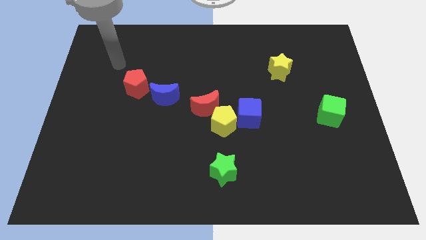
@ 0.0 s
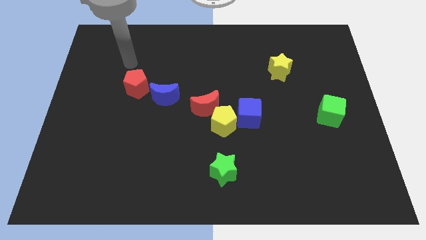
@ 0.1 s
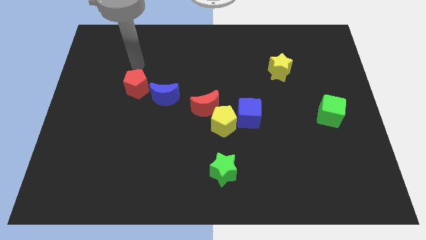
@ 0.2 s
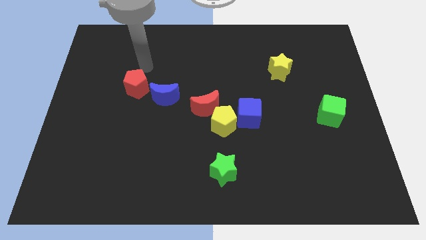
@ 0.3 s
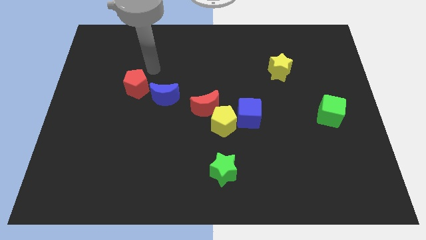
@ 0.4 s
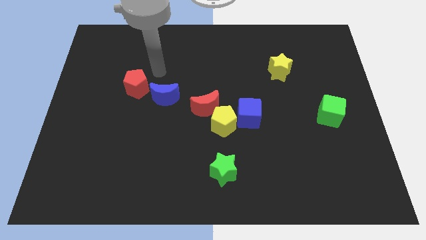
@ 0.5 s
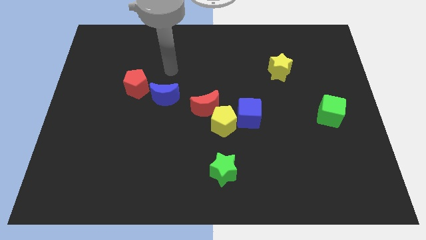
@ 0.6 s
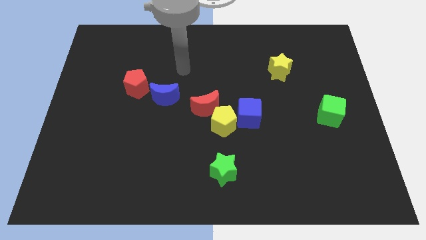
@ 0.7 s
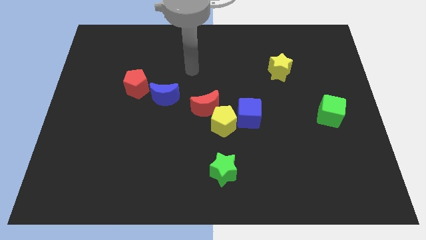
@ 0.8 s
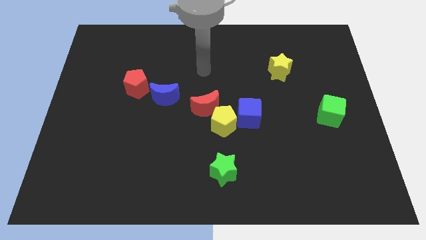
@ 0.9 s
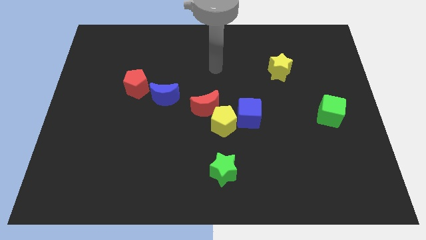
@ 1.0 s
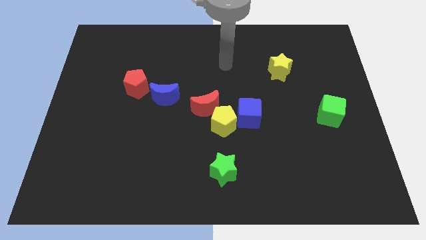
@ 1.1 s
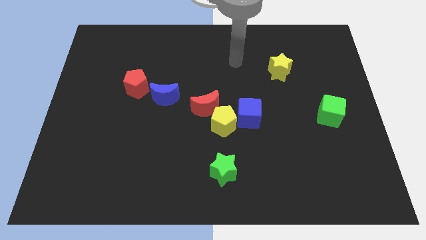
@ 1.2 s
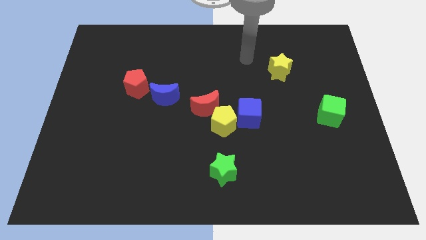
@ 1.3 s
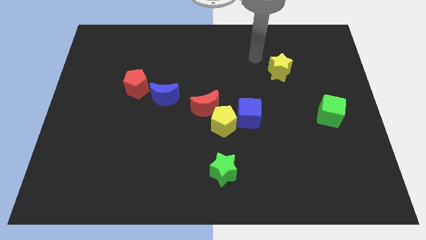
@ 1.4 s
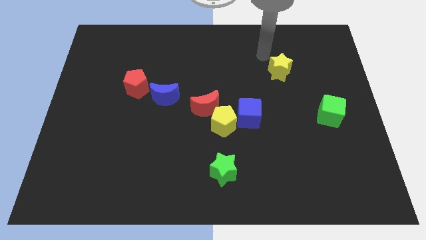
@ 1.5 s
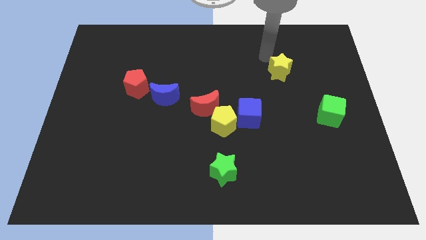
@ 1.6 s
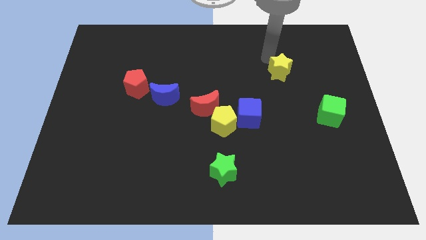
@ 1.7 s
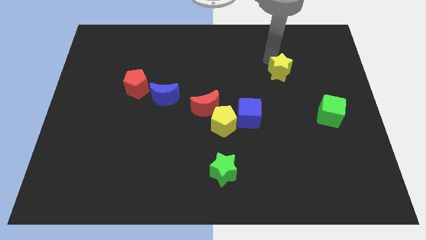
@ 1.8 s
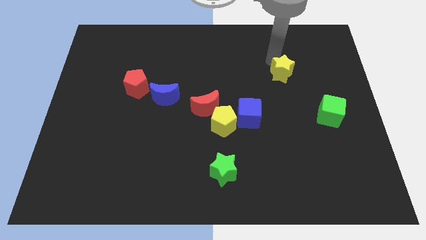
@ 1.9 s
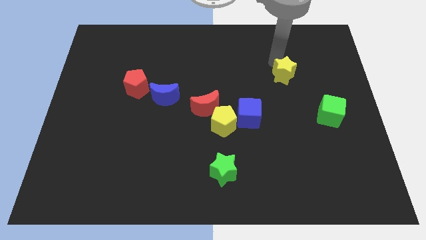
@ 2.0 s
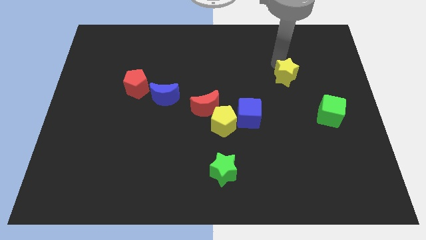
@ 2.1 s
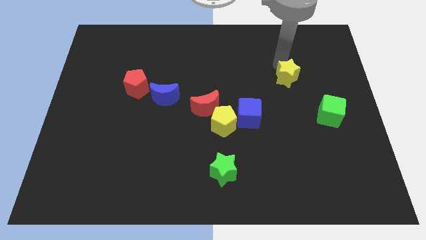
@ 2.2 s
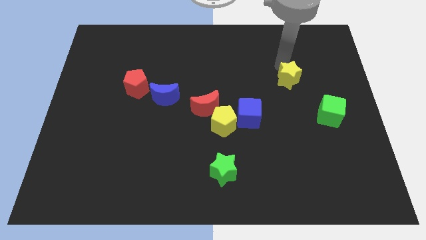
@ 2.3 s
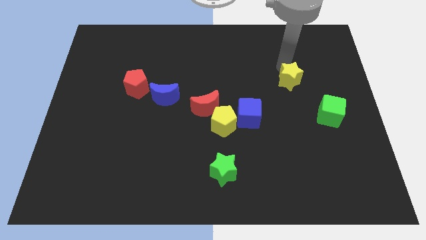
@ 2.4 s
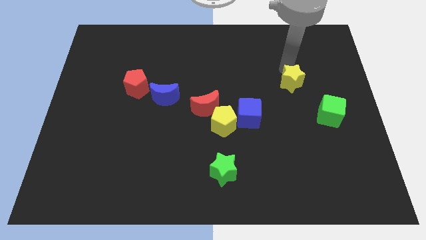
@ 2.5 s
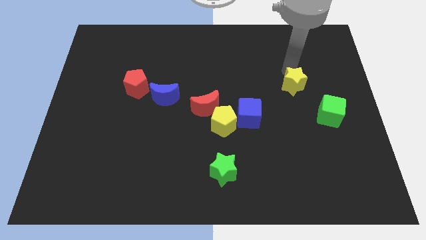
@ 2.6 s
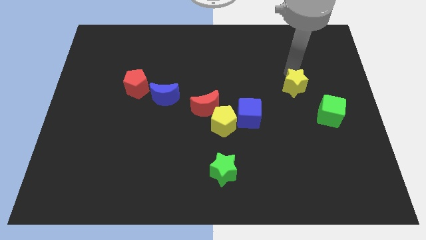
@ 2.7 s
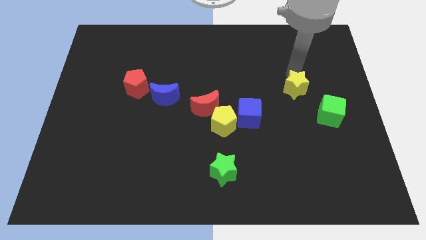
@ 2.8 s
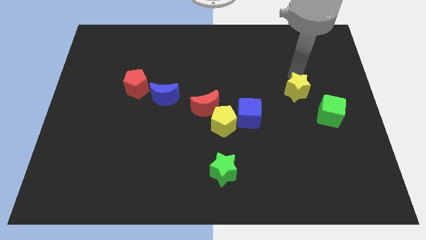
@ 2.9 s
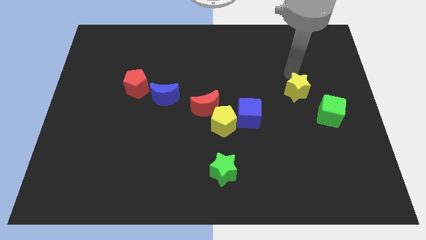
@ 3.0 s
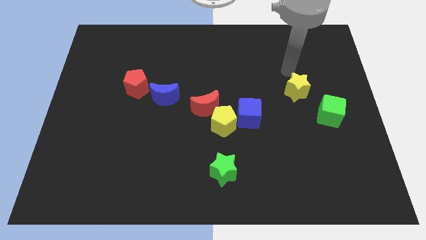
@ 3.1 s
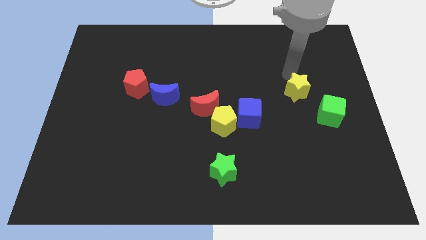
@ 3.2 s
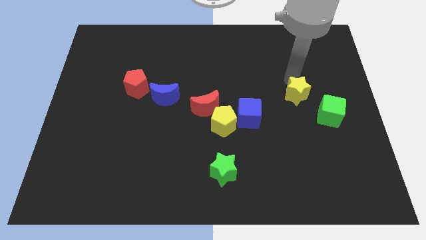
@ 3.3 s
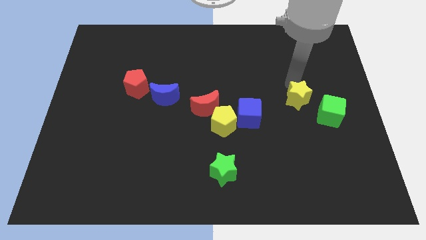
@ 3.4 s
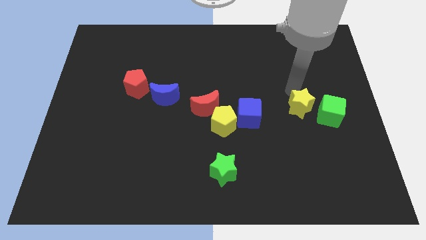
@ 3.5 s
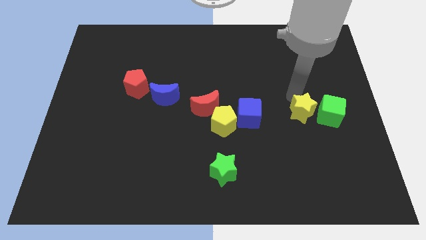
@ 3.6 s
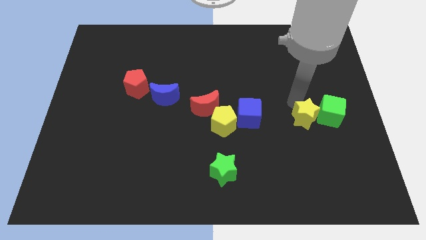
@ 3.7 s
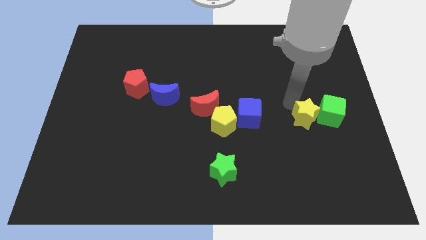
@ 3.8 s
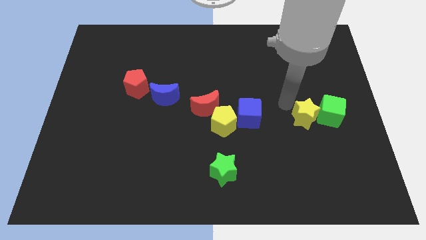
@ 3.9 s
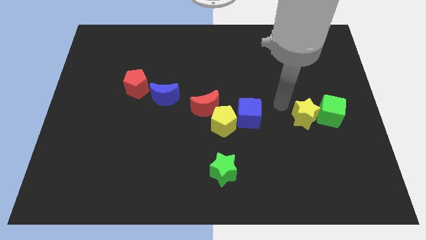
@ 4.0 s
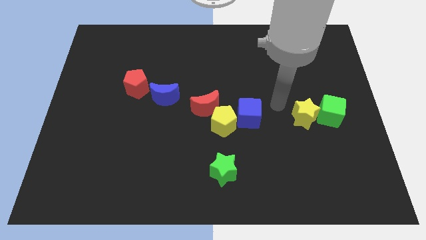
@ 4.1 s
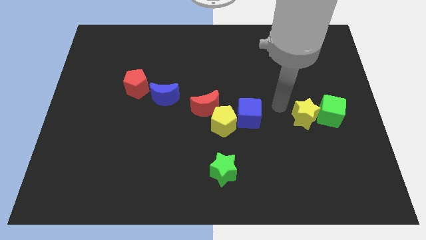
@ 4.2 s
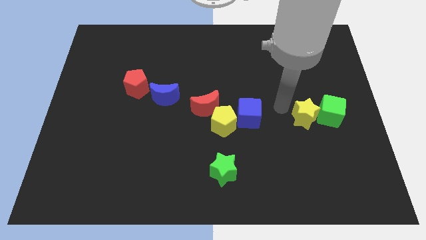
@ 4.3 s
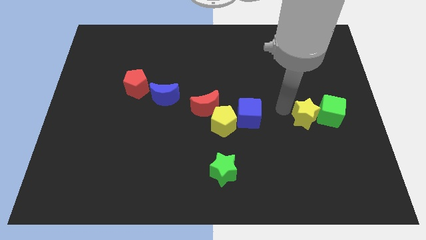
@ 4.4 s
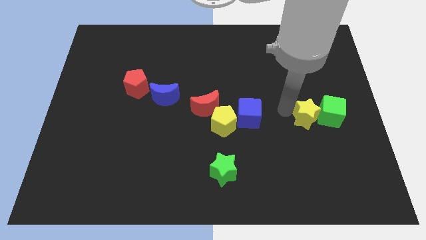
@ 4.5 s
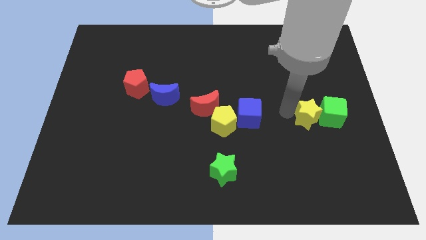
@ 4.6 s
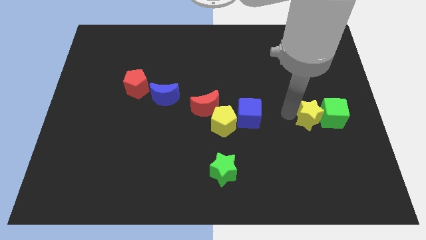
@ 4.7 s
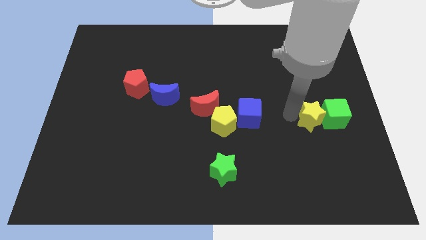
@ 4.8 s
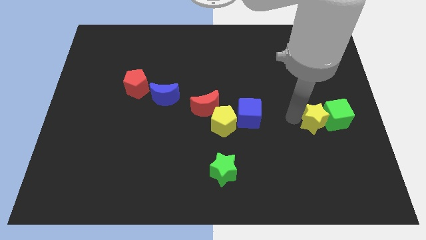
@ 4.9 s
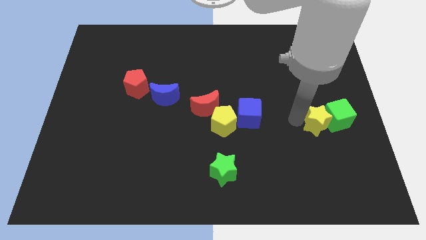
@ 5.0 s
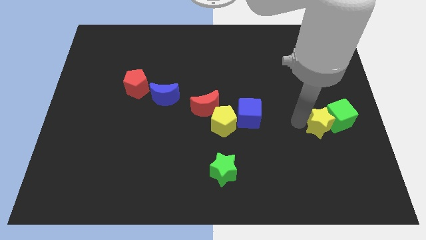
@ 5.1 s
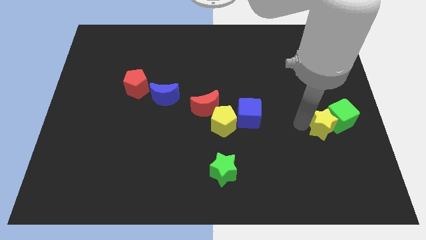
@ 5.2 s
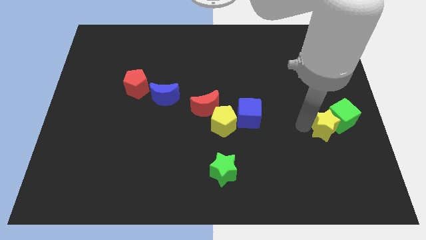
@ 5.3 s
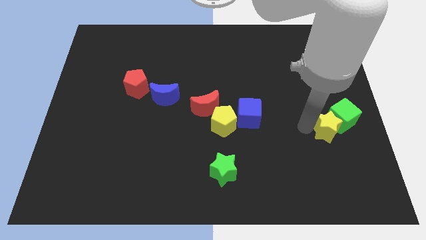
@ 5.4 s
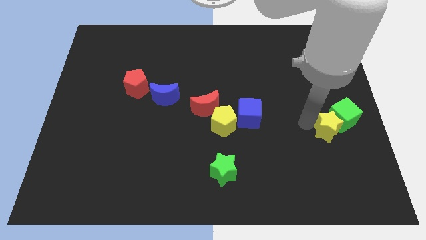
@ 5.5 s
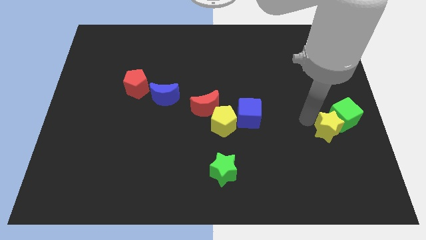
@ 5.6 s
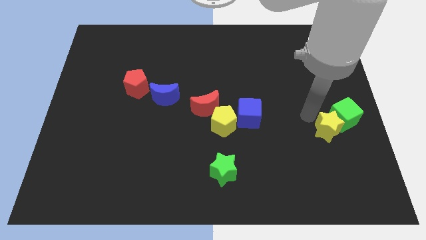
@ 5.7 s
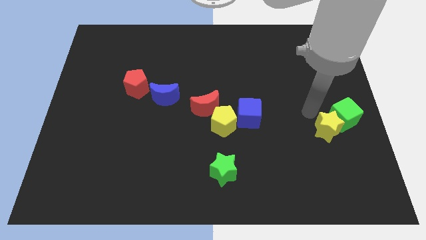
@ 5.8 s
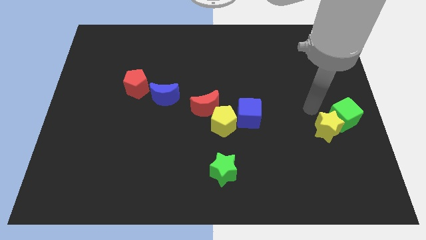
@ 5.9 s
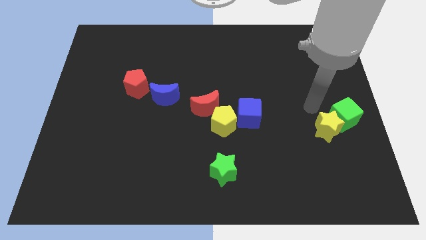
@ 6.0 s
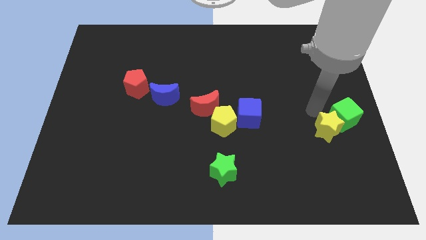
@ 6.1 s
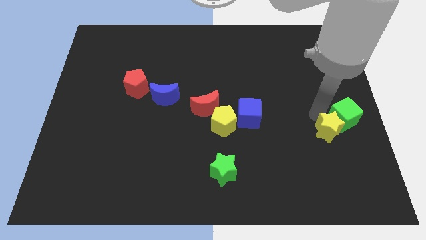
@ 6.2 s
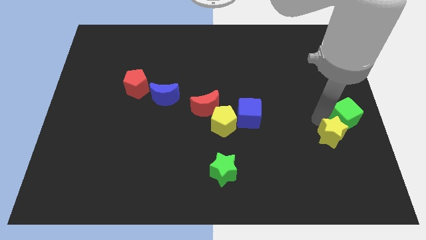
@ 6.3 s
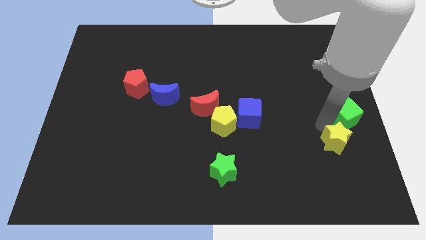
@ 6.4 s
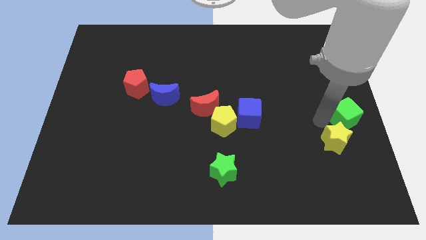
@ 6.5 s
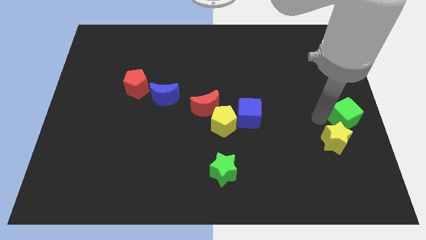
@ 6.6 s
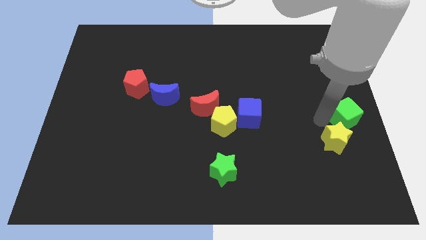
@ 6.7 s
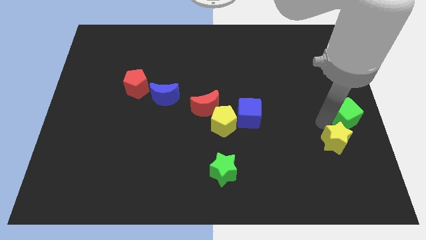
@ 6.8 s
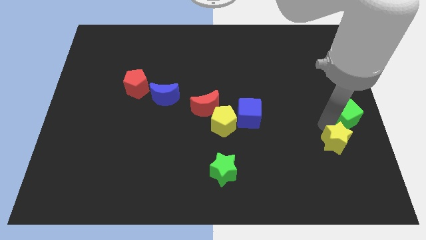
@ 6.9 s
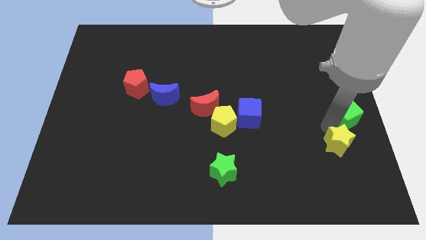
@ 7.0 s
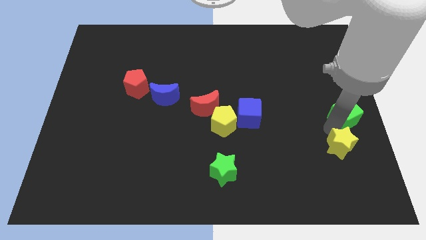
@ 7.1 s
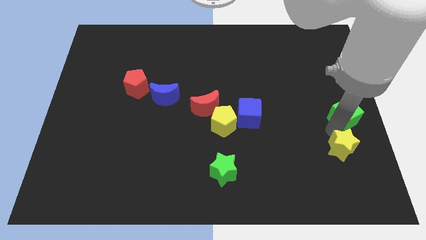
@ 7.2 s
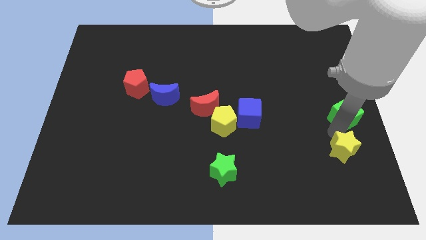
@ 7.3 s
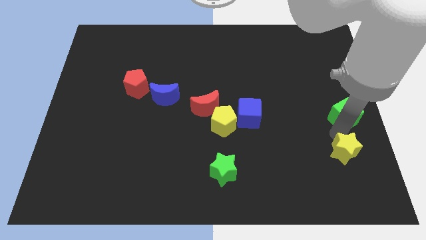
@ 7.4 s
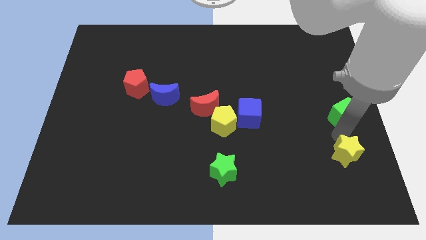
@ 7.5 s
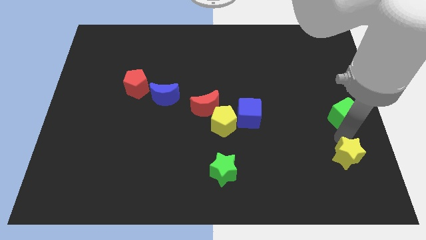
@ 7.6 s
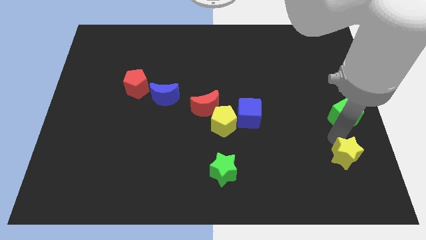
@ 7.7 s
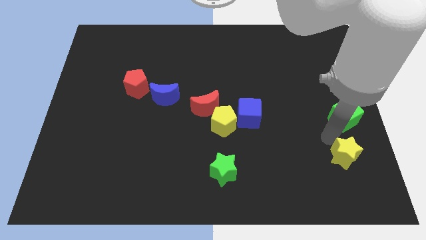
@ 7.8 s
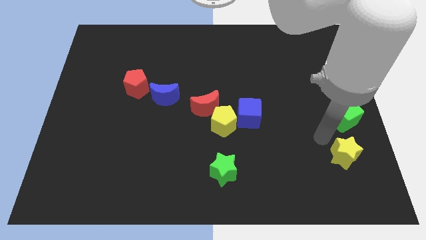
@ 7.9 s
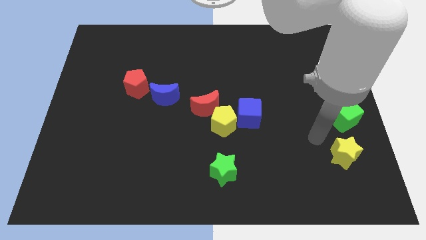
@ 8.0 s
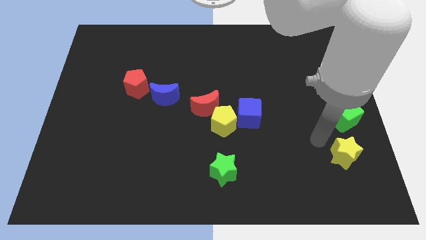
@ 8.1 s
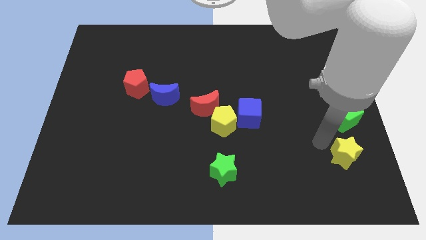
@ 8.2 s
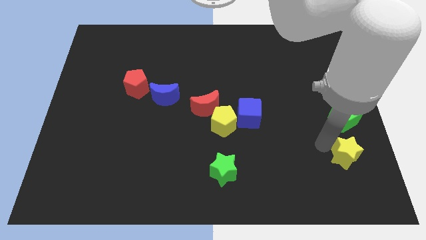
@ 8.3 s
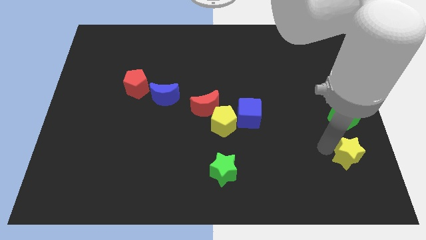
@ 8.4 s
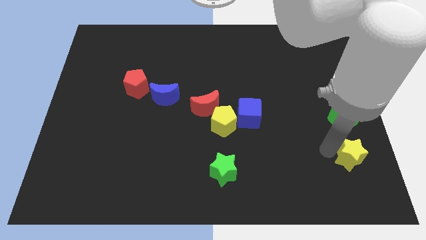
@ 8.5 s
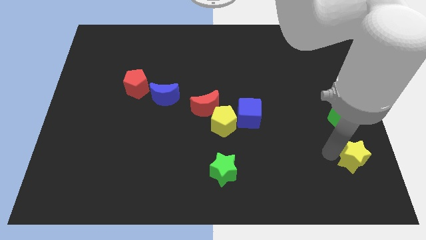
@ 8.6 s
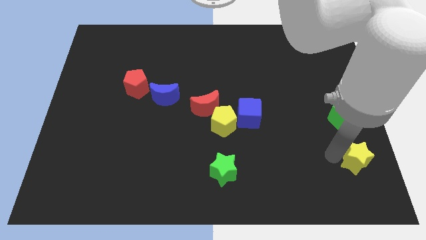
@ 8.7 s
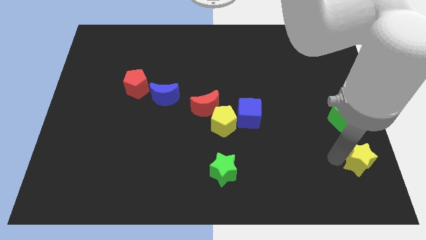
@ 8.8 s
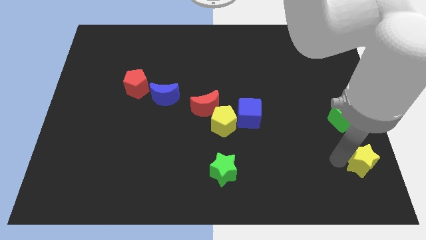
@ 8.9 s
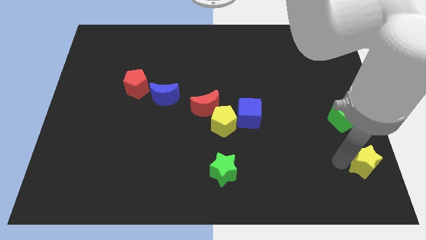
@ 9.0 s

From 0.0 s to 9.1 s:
move the yellow star to the bottom right of the board
